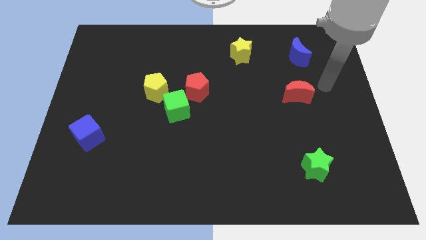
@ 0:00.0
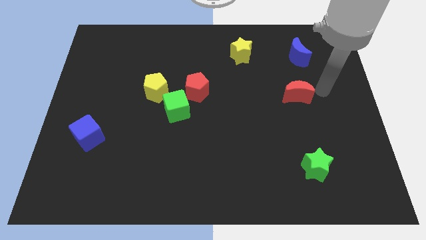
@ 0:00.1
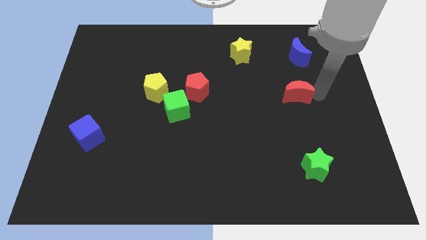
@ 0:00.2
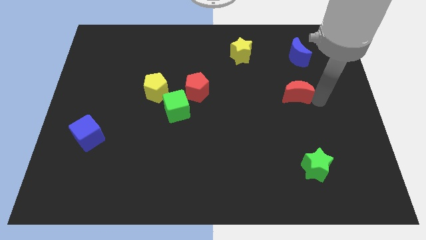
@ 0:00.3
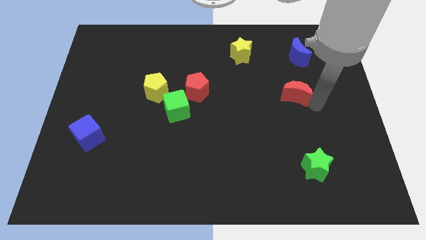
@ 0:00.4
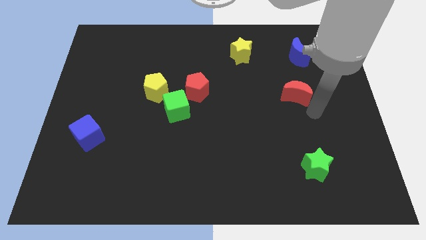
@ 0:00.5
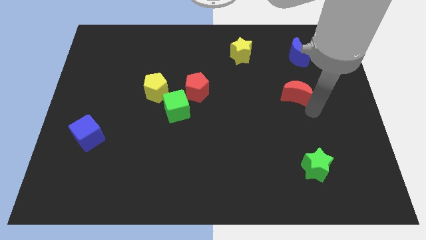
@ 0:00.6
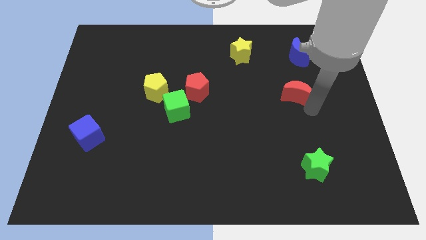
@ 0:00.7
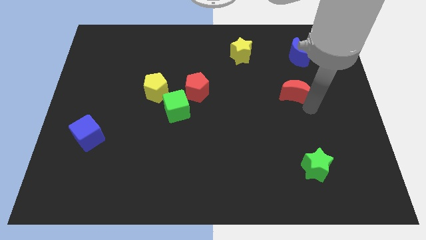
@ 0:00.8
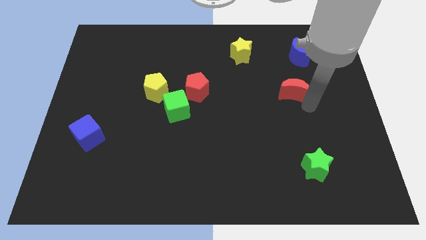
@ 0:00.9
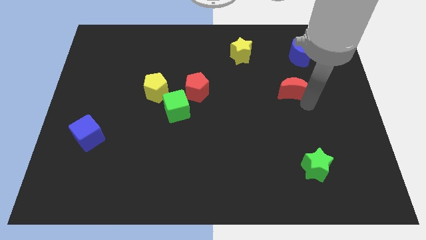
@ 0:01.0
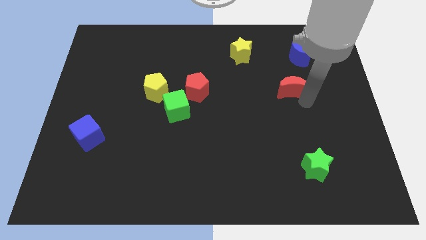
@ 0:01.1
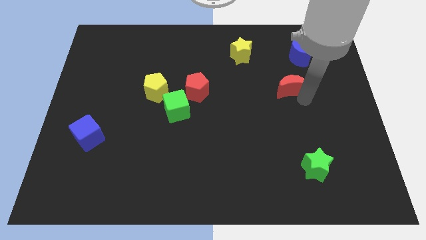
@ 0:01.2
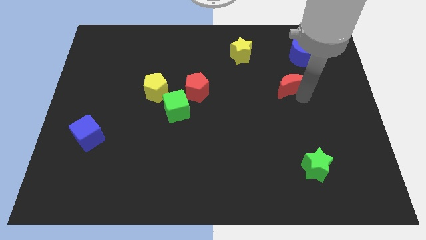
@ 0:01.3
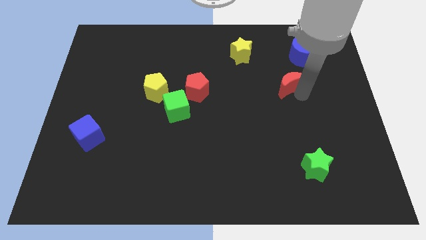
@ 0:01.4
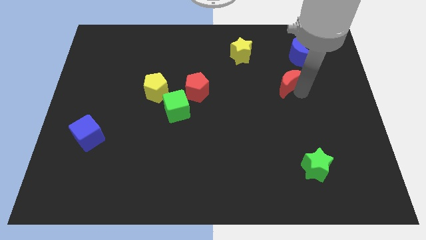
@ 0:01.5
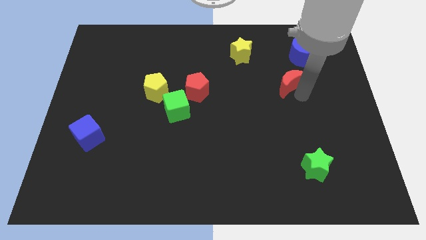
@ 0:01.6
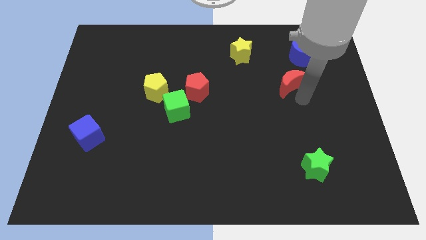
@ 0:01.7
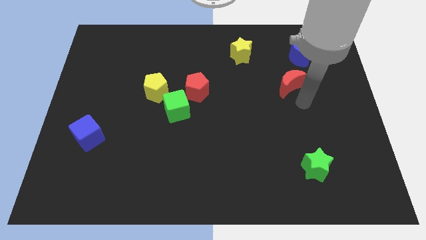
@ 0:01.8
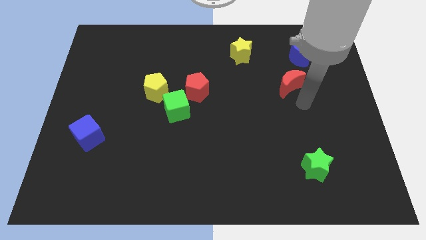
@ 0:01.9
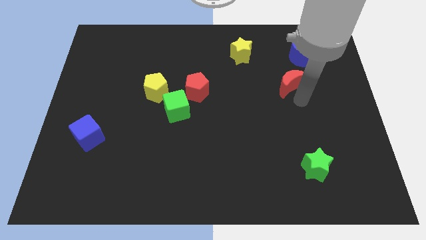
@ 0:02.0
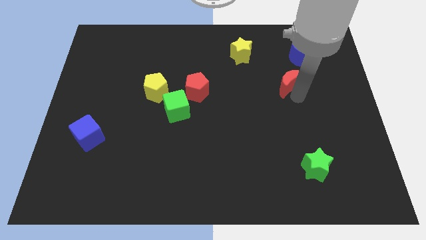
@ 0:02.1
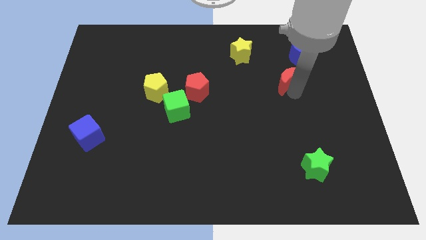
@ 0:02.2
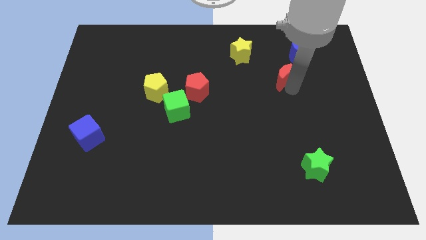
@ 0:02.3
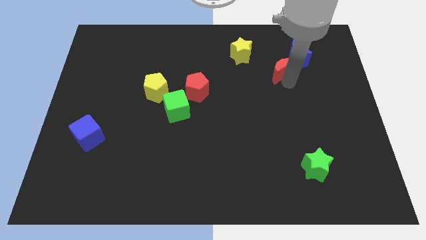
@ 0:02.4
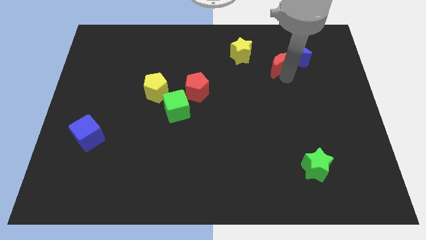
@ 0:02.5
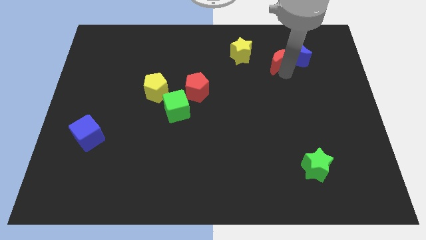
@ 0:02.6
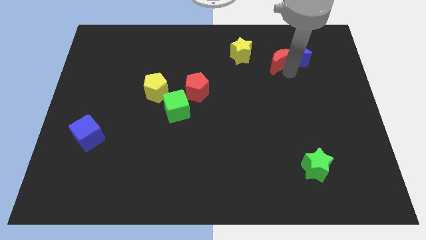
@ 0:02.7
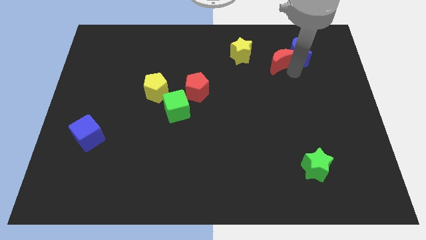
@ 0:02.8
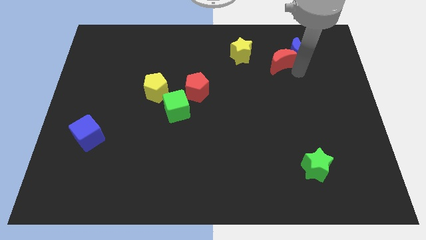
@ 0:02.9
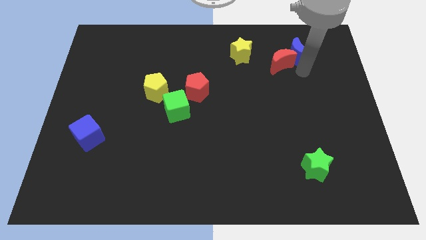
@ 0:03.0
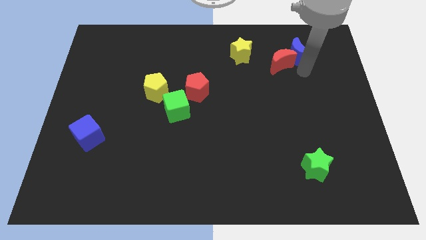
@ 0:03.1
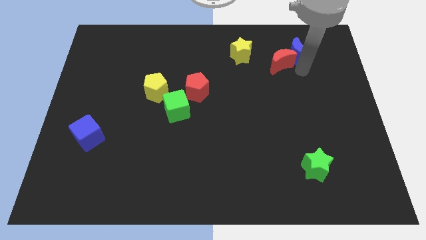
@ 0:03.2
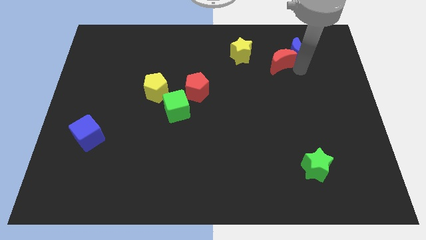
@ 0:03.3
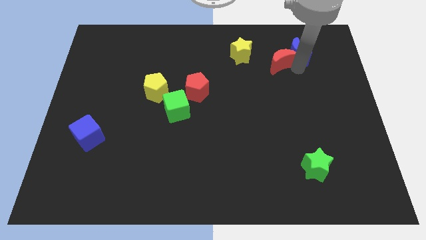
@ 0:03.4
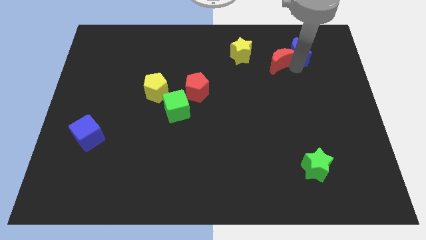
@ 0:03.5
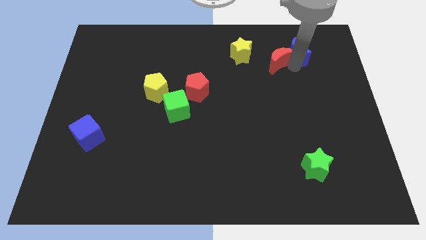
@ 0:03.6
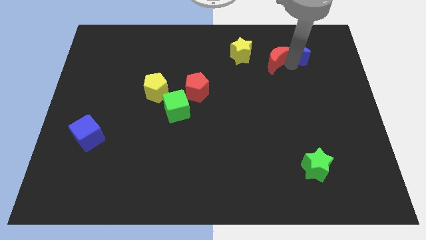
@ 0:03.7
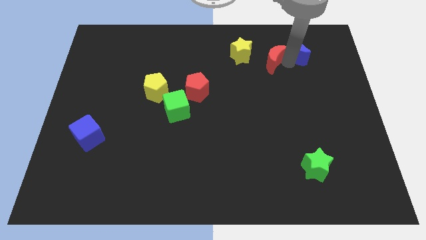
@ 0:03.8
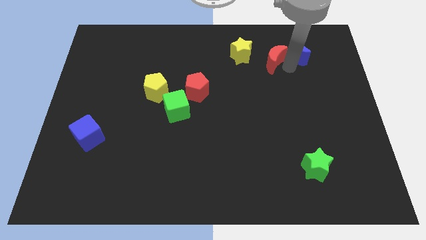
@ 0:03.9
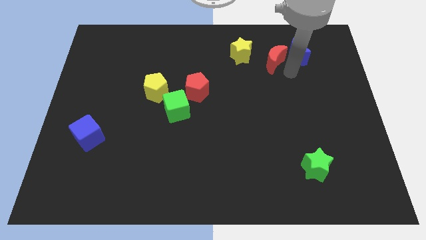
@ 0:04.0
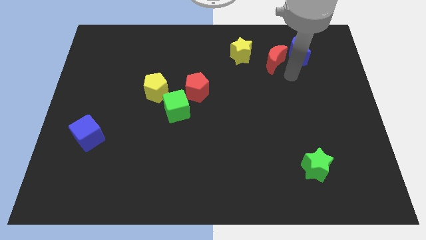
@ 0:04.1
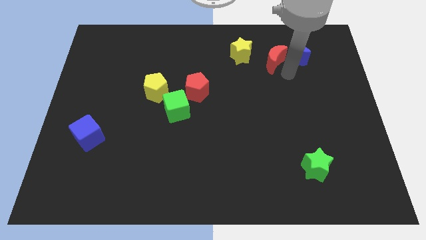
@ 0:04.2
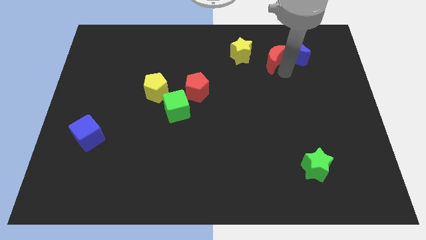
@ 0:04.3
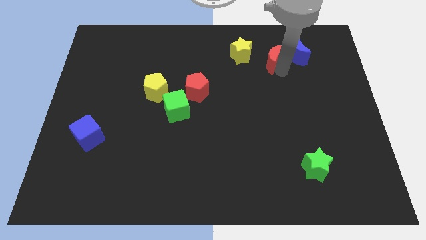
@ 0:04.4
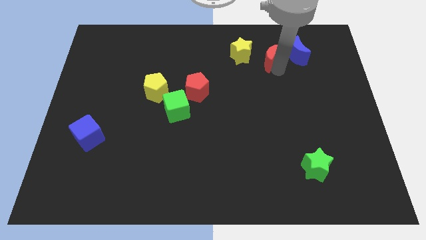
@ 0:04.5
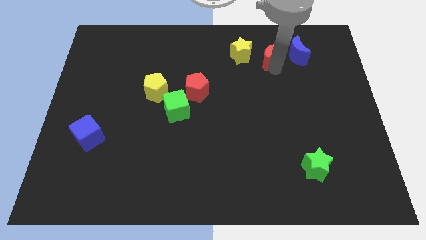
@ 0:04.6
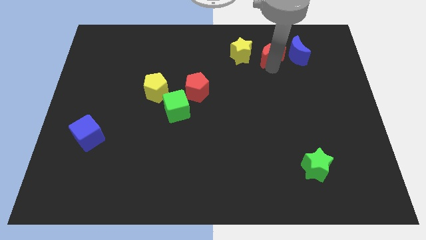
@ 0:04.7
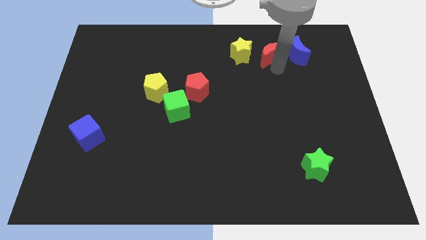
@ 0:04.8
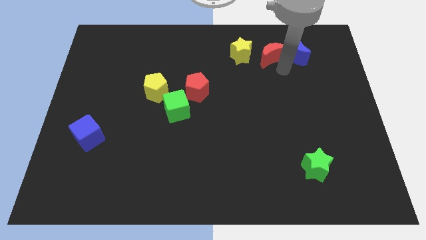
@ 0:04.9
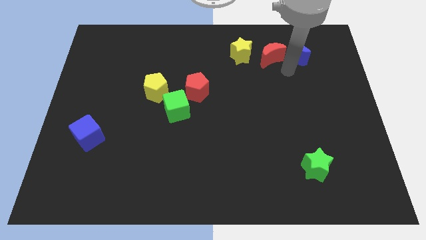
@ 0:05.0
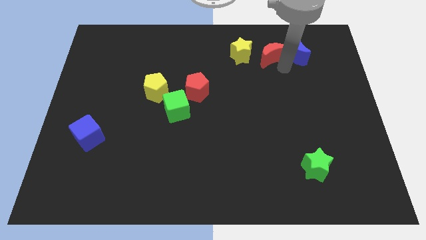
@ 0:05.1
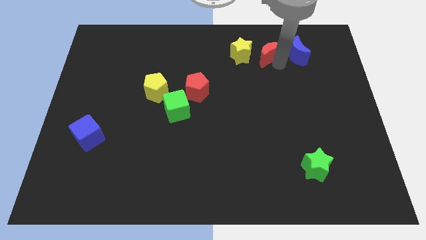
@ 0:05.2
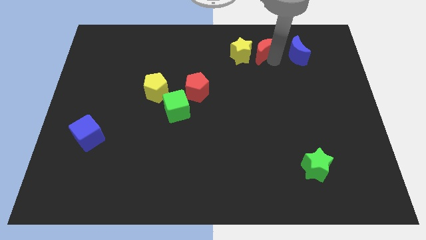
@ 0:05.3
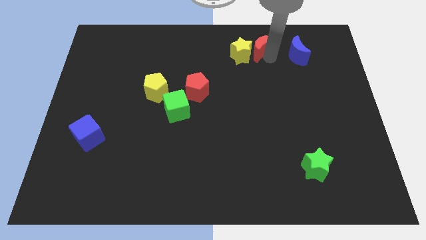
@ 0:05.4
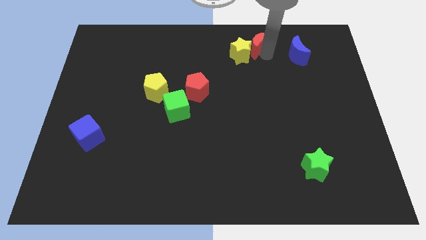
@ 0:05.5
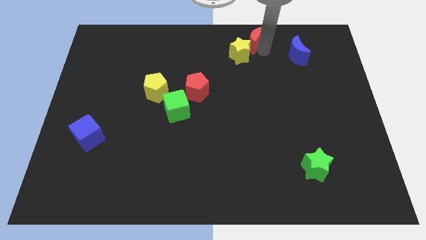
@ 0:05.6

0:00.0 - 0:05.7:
move the red moon to the top
